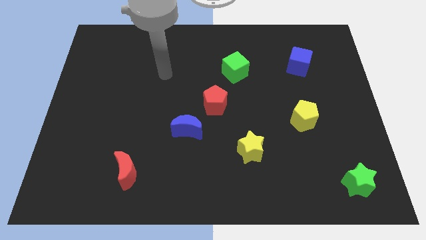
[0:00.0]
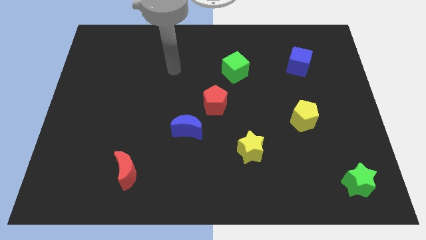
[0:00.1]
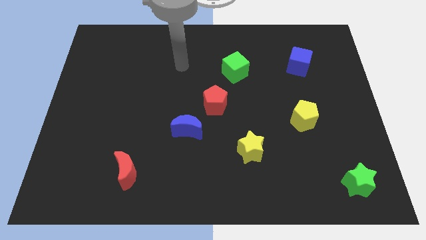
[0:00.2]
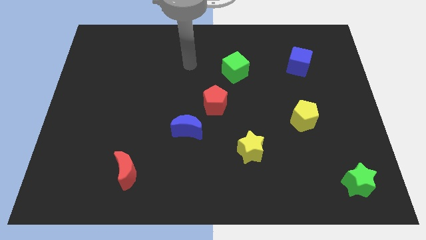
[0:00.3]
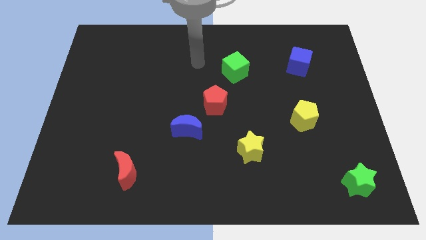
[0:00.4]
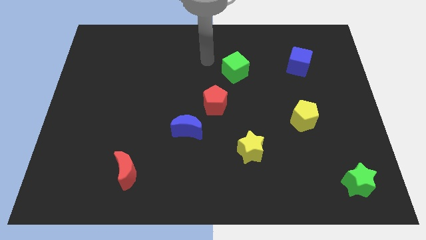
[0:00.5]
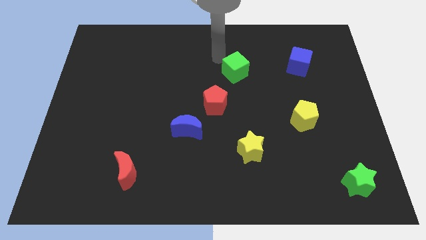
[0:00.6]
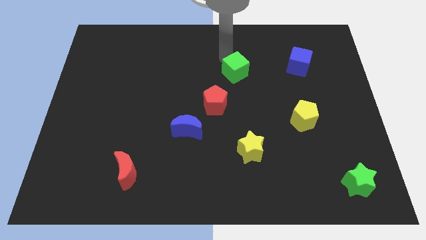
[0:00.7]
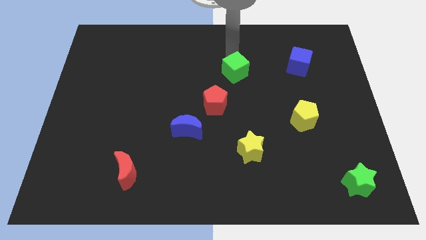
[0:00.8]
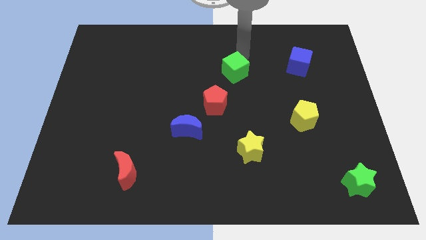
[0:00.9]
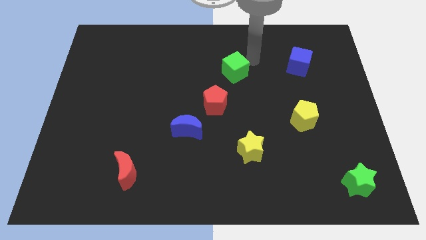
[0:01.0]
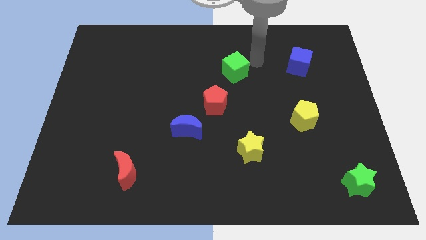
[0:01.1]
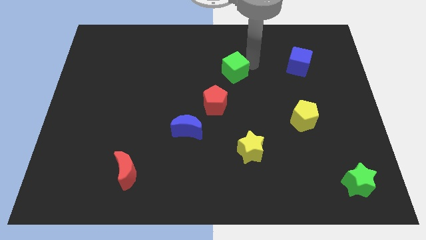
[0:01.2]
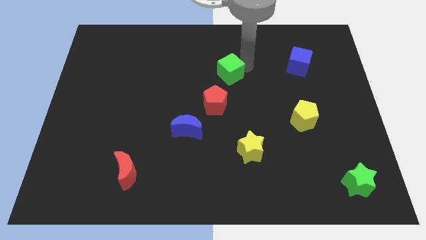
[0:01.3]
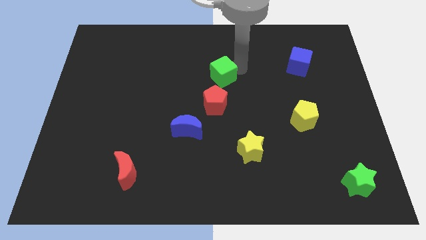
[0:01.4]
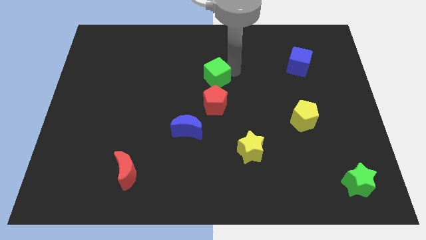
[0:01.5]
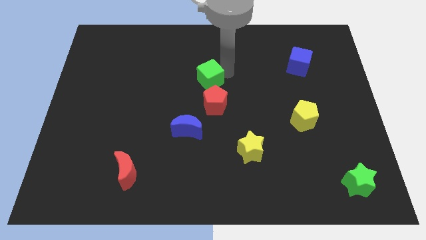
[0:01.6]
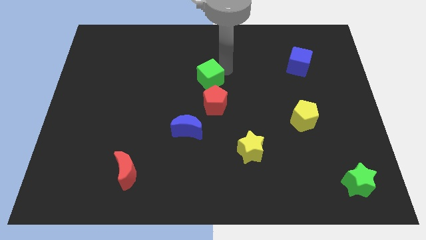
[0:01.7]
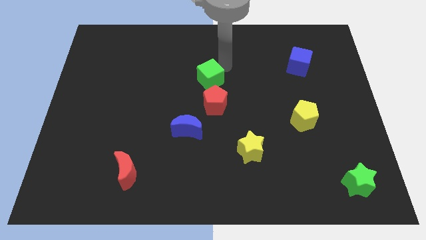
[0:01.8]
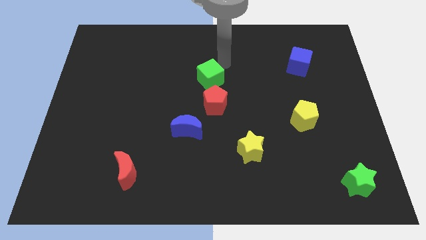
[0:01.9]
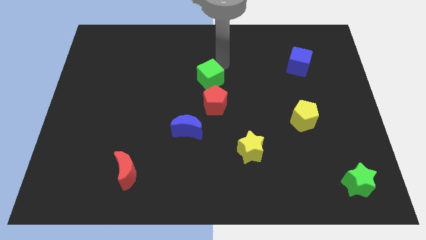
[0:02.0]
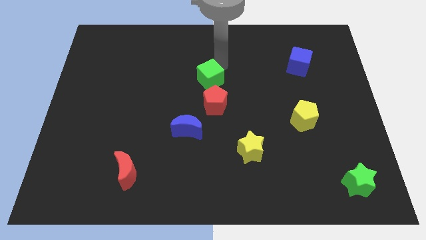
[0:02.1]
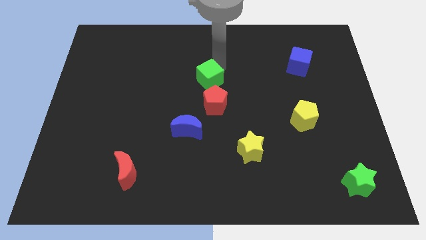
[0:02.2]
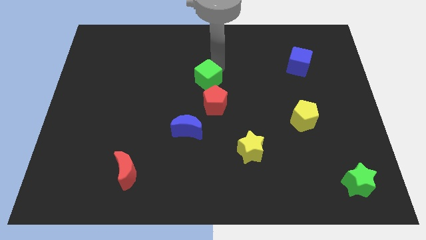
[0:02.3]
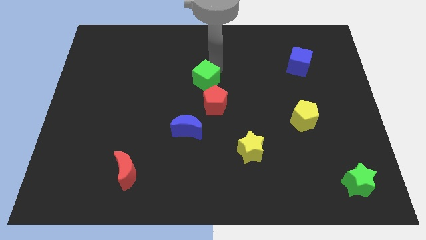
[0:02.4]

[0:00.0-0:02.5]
slightly push the green cube down and to the left

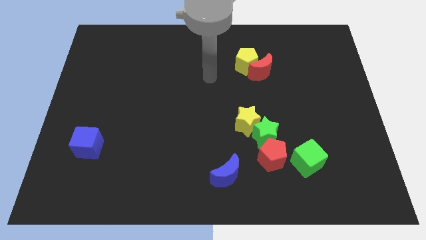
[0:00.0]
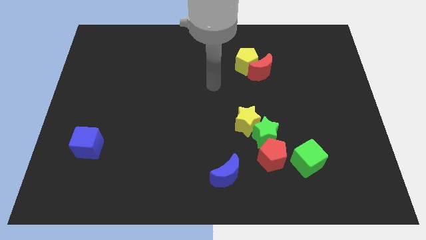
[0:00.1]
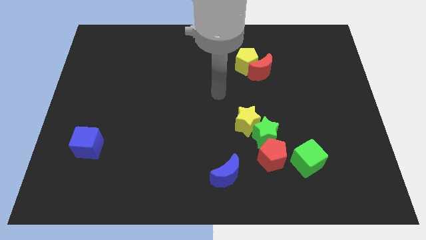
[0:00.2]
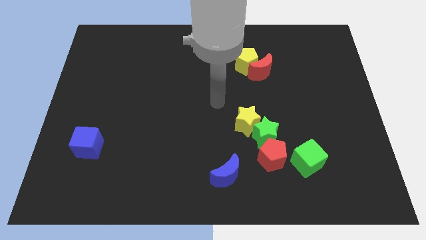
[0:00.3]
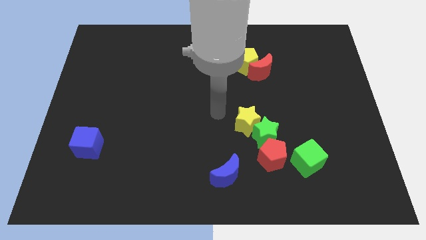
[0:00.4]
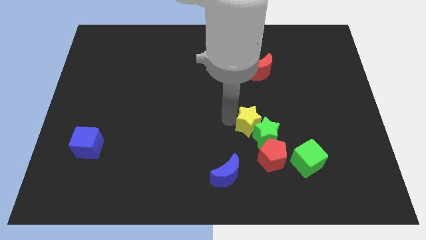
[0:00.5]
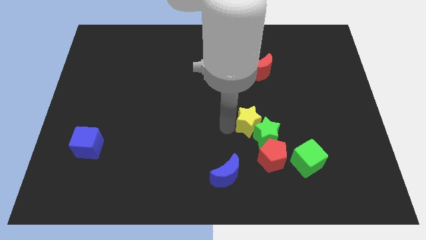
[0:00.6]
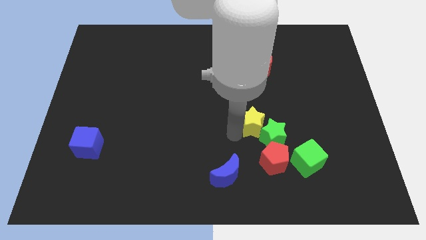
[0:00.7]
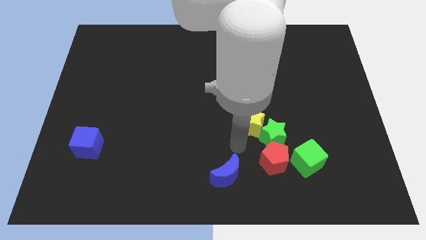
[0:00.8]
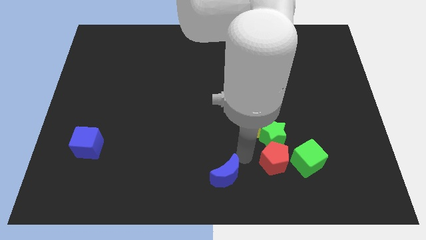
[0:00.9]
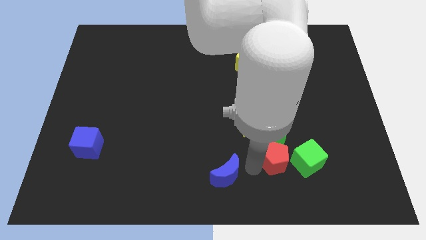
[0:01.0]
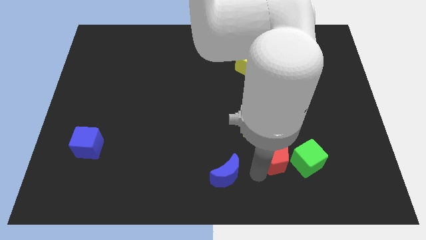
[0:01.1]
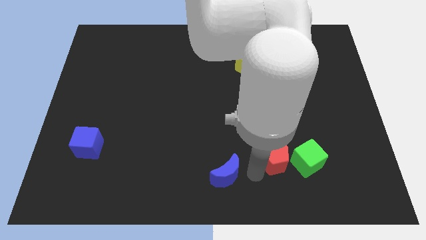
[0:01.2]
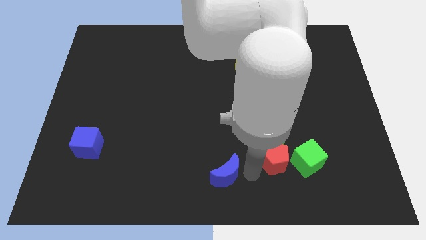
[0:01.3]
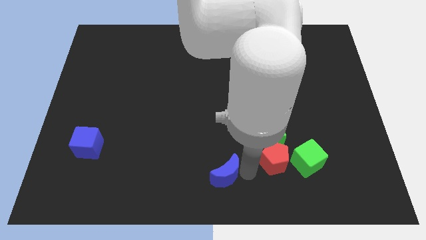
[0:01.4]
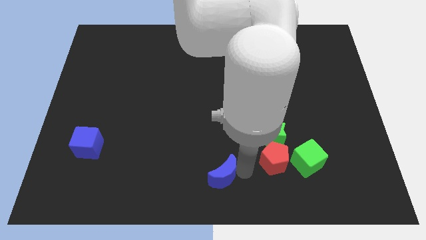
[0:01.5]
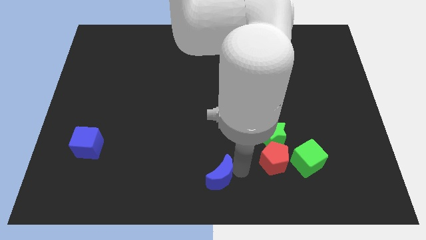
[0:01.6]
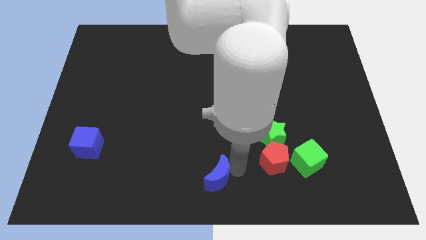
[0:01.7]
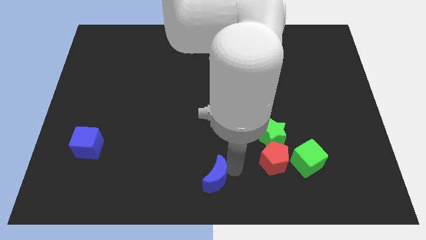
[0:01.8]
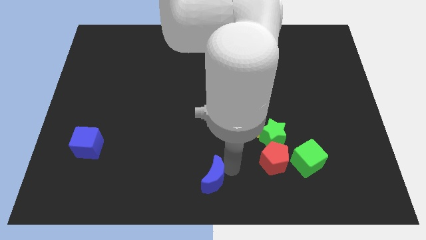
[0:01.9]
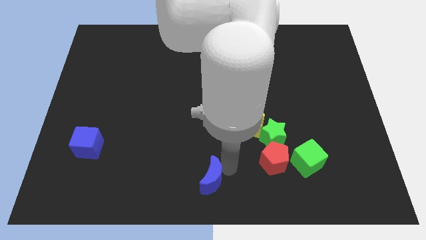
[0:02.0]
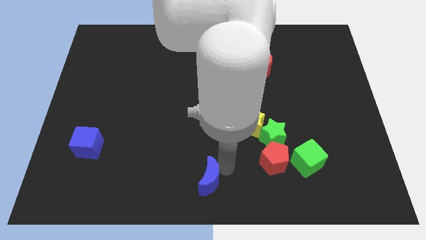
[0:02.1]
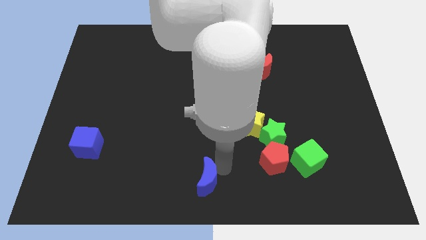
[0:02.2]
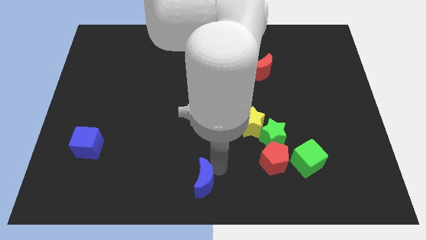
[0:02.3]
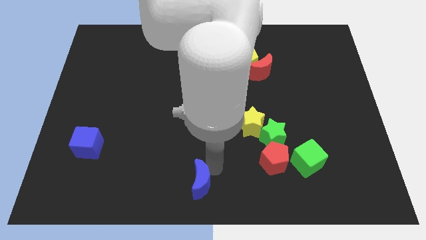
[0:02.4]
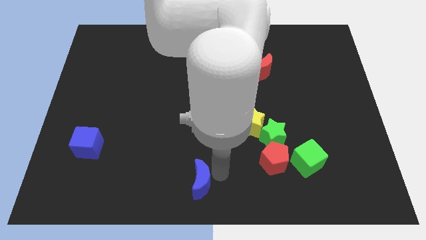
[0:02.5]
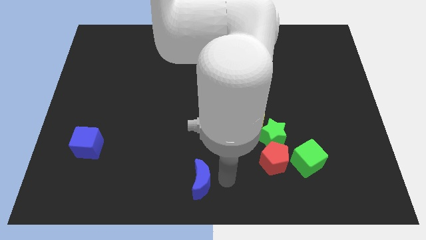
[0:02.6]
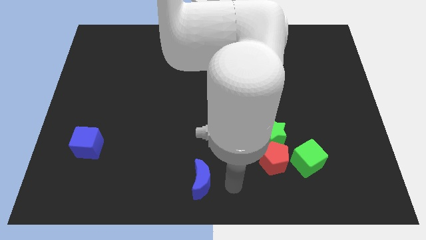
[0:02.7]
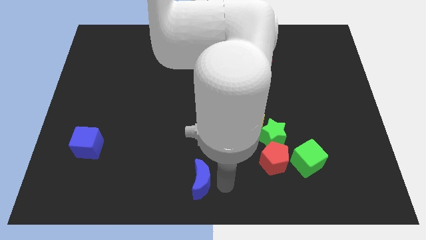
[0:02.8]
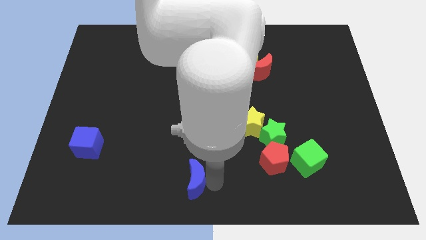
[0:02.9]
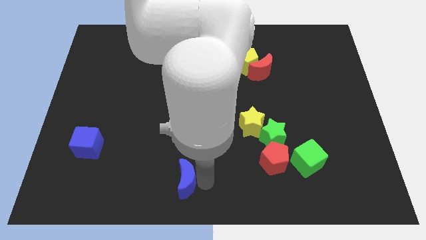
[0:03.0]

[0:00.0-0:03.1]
move the blue moon a bit left

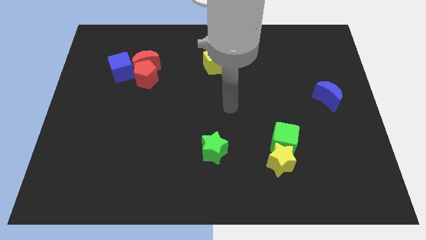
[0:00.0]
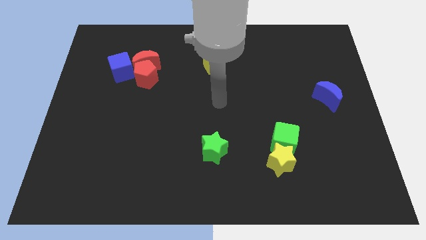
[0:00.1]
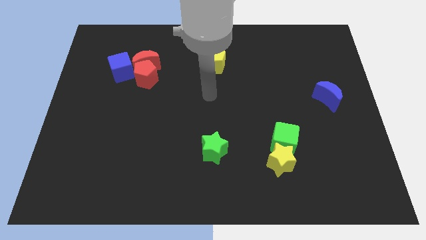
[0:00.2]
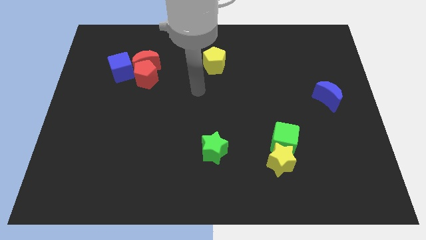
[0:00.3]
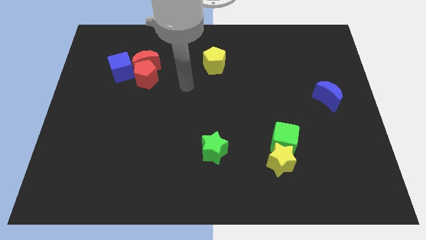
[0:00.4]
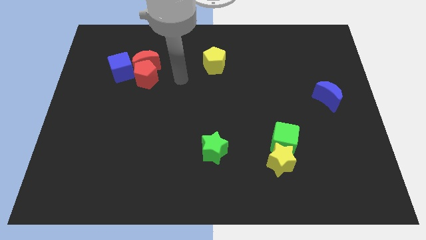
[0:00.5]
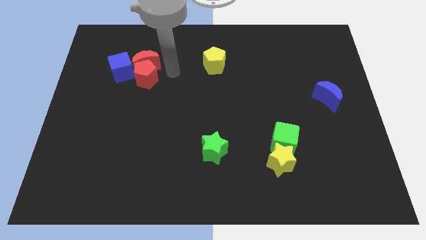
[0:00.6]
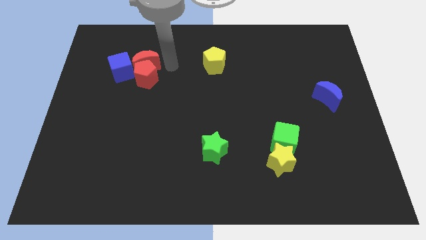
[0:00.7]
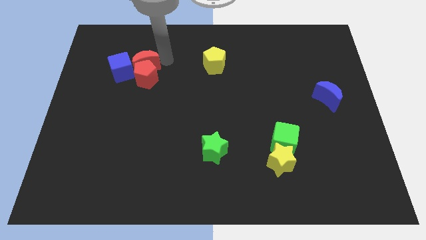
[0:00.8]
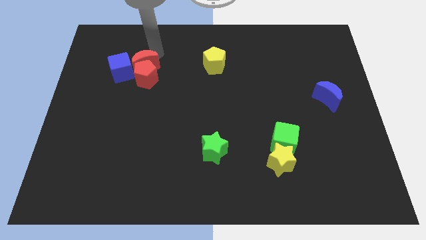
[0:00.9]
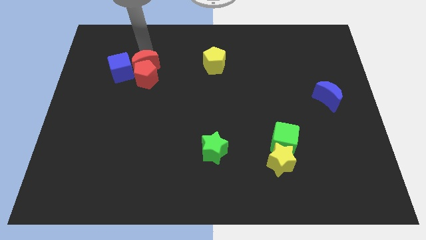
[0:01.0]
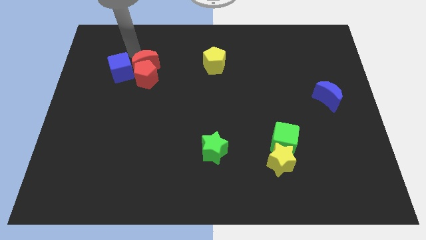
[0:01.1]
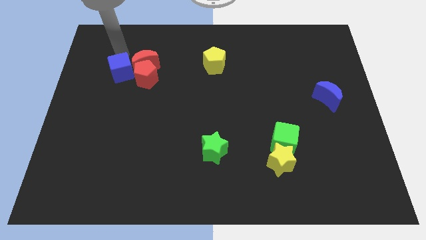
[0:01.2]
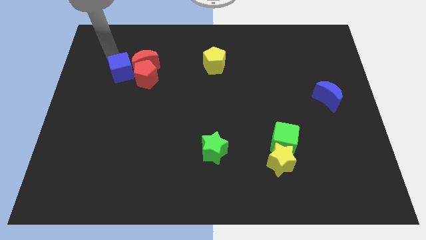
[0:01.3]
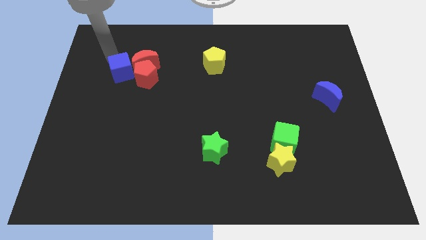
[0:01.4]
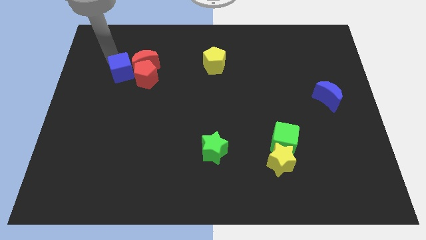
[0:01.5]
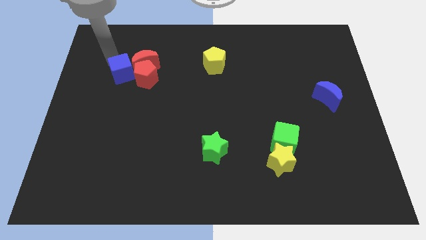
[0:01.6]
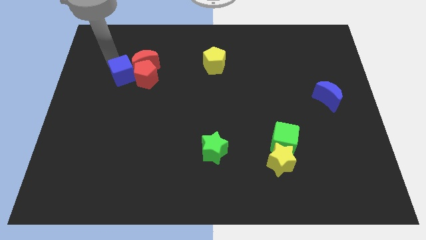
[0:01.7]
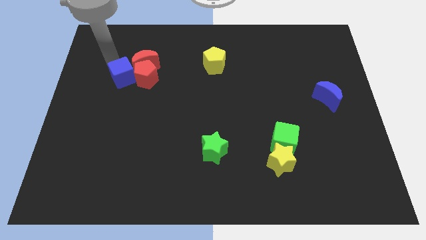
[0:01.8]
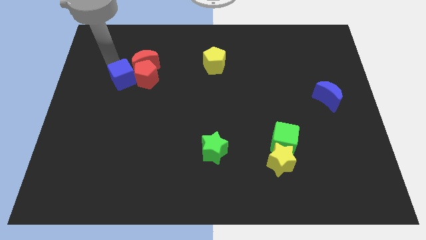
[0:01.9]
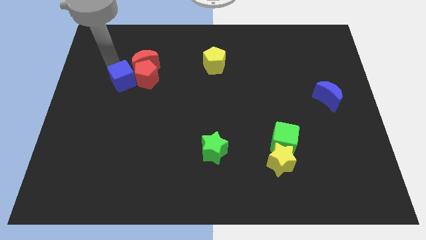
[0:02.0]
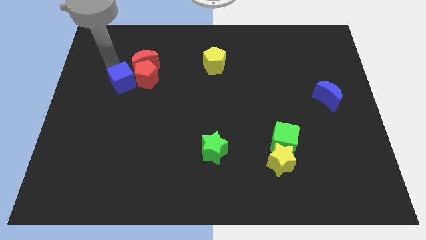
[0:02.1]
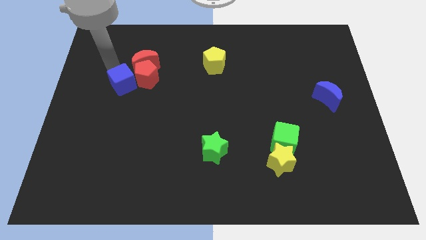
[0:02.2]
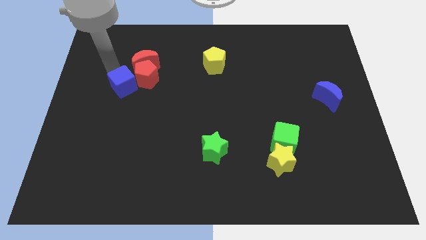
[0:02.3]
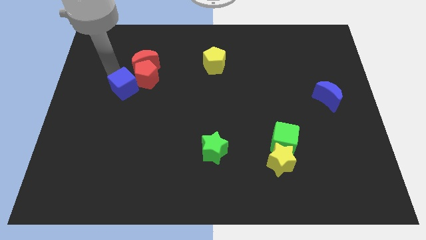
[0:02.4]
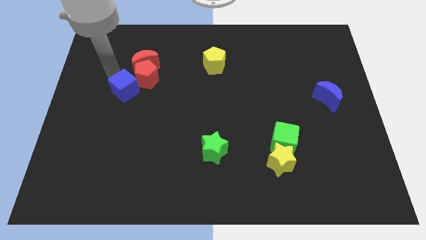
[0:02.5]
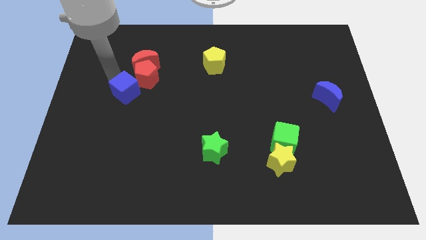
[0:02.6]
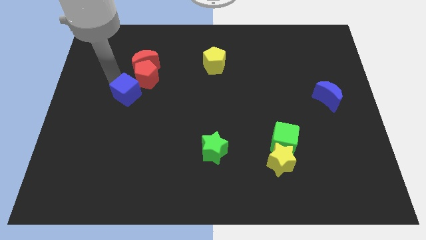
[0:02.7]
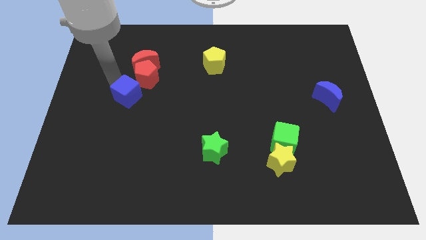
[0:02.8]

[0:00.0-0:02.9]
slightly move the blue cube down and right diagonally
